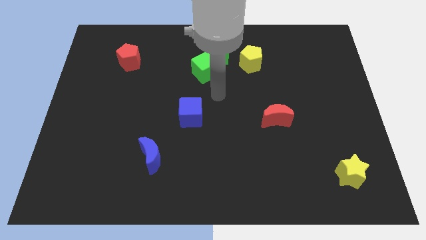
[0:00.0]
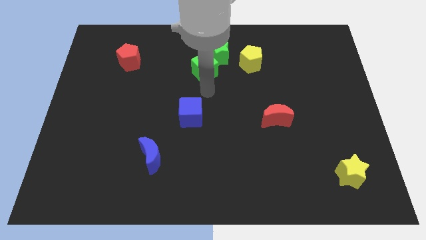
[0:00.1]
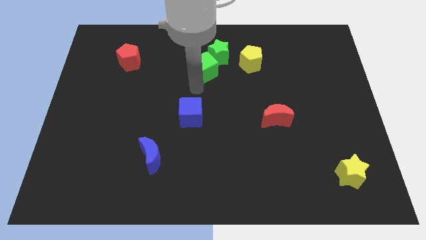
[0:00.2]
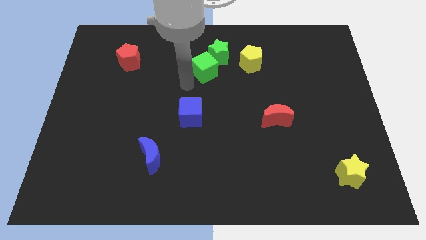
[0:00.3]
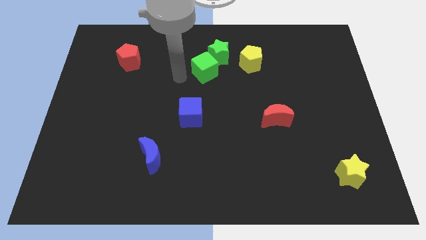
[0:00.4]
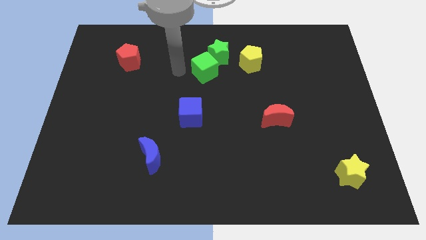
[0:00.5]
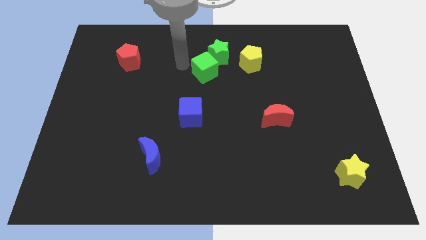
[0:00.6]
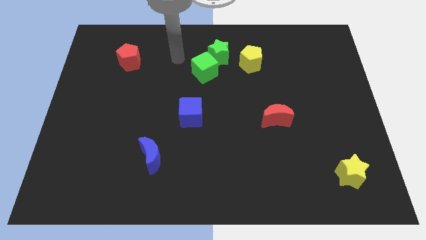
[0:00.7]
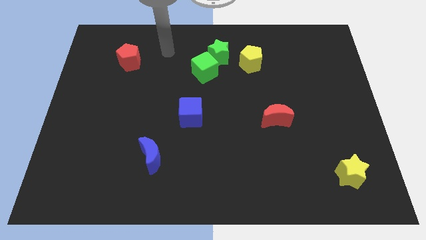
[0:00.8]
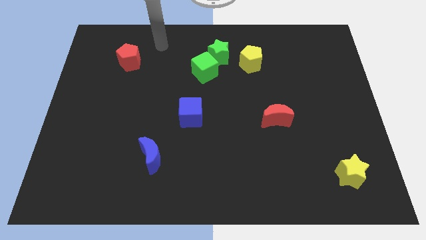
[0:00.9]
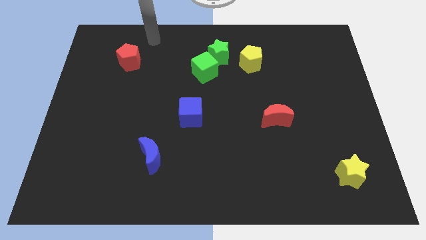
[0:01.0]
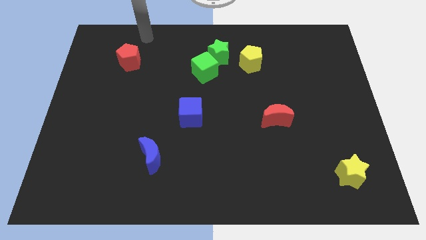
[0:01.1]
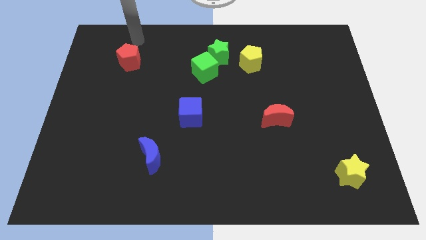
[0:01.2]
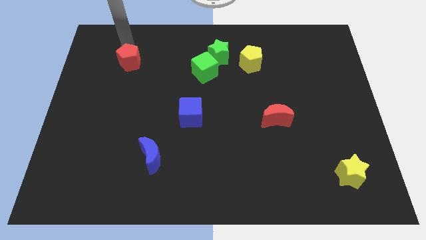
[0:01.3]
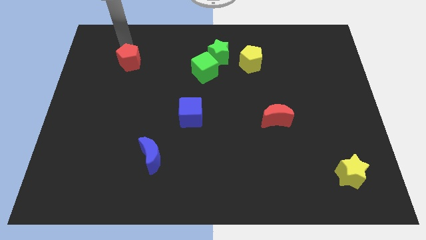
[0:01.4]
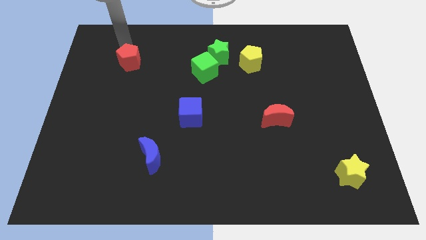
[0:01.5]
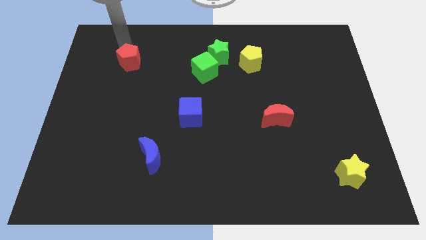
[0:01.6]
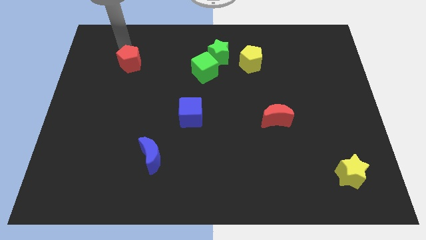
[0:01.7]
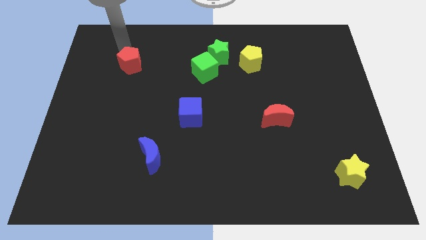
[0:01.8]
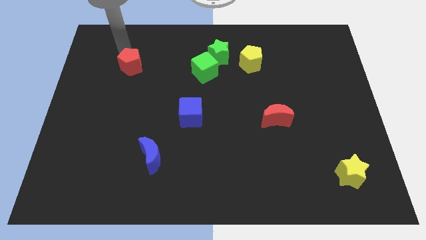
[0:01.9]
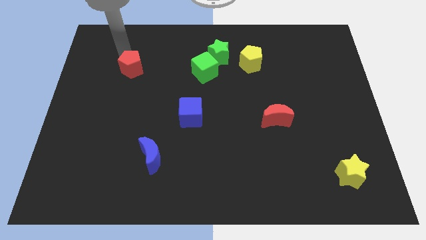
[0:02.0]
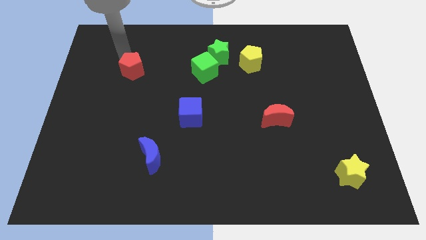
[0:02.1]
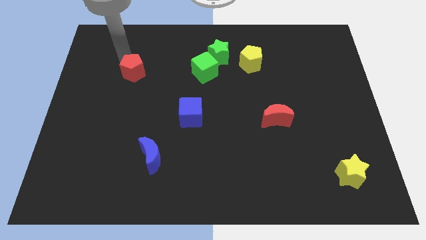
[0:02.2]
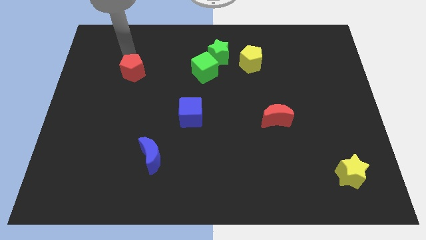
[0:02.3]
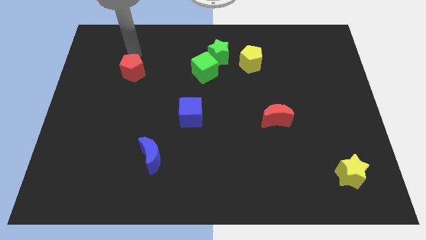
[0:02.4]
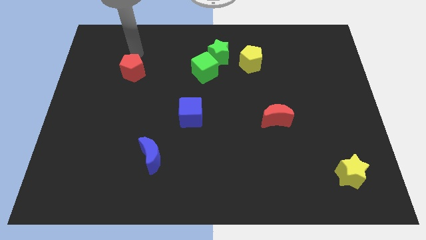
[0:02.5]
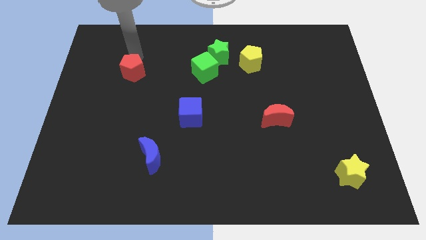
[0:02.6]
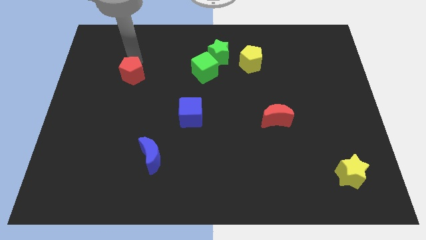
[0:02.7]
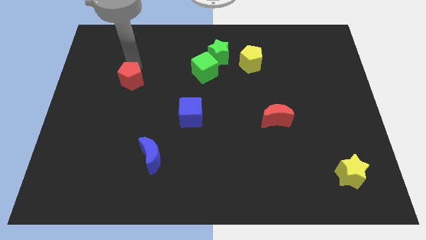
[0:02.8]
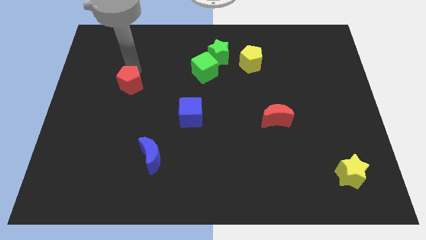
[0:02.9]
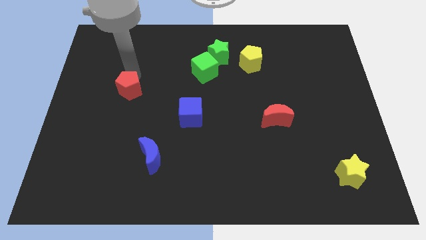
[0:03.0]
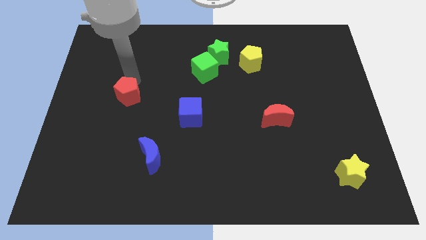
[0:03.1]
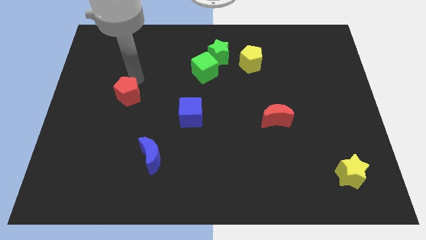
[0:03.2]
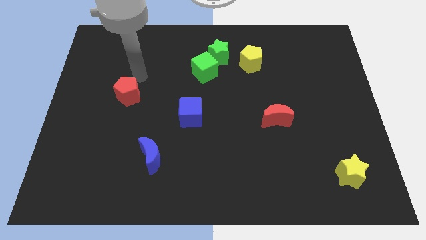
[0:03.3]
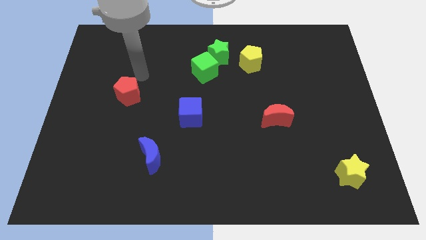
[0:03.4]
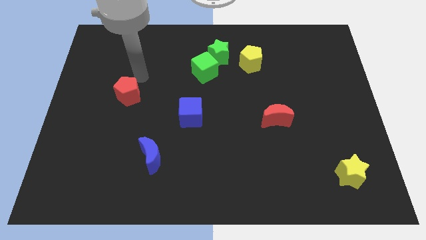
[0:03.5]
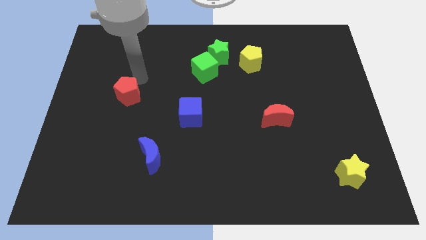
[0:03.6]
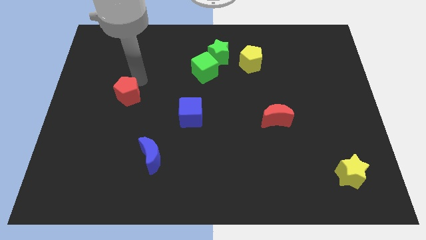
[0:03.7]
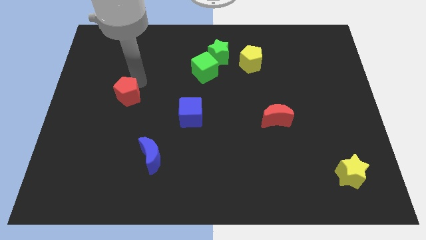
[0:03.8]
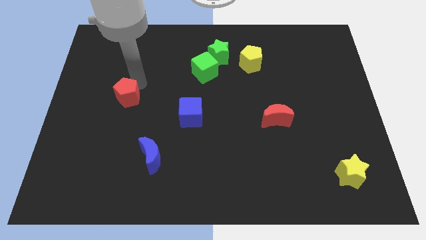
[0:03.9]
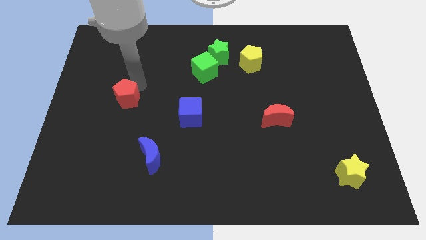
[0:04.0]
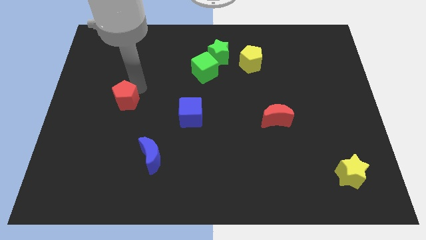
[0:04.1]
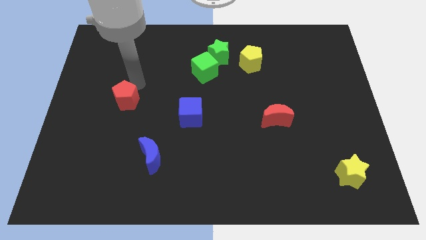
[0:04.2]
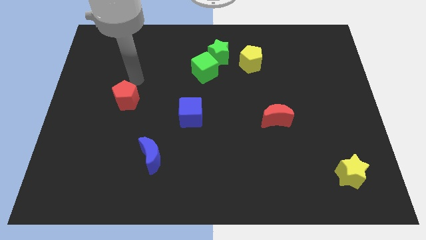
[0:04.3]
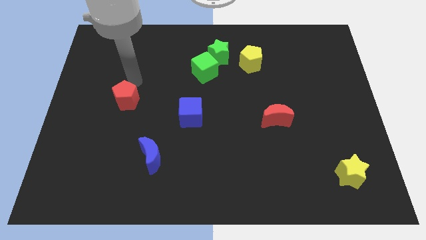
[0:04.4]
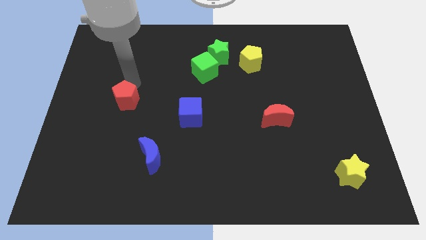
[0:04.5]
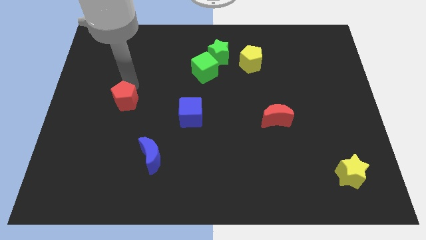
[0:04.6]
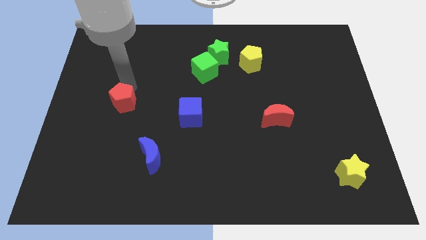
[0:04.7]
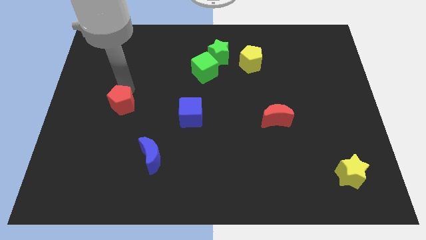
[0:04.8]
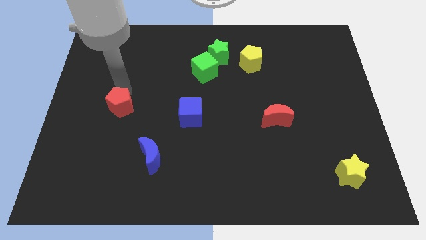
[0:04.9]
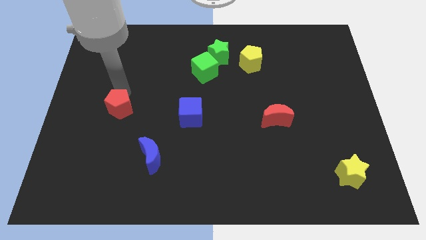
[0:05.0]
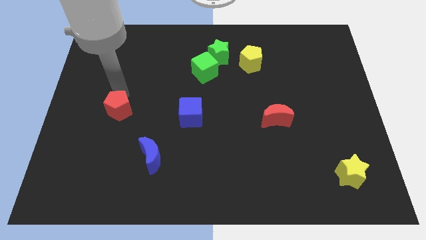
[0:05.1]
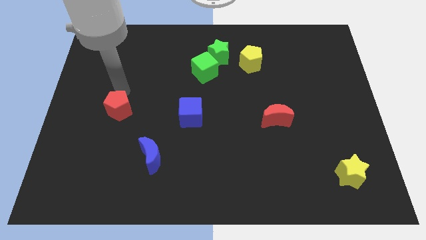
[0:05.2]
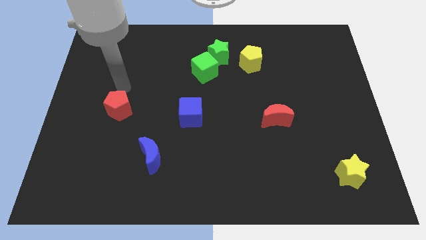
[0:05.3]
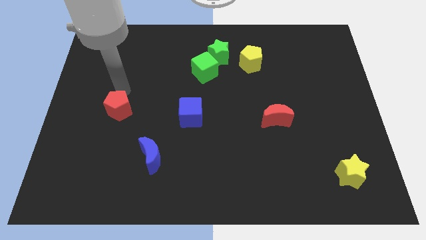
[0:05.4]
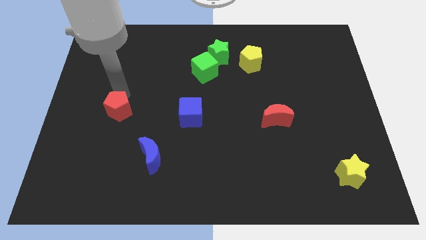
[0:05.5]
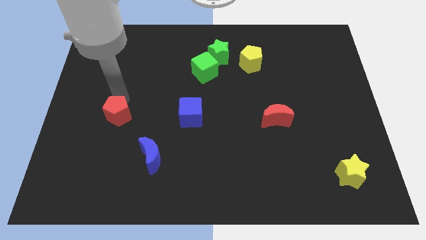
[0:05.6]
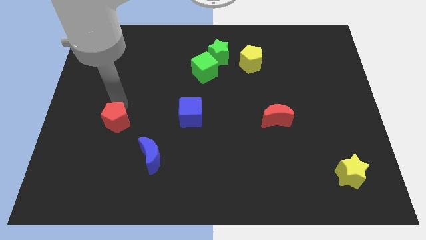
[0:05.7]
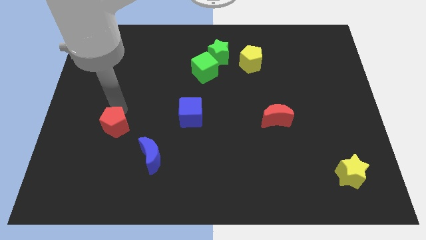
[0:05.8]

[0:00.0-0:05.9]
move the red pentagon down

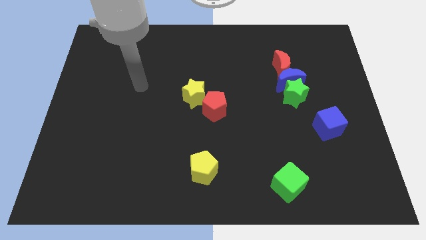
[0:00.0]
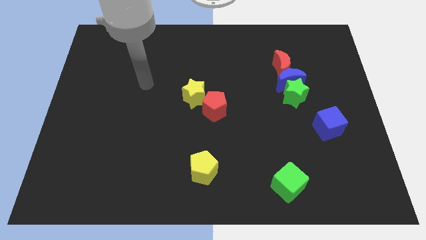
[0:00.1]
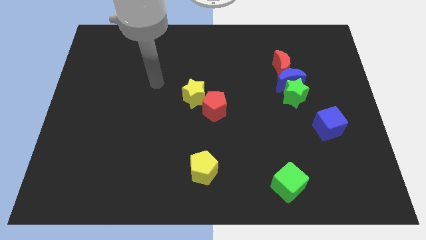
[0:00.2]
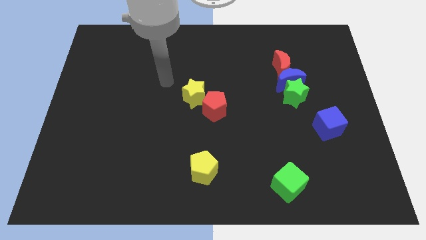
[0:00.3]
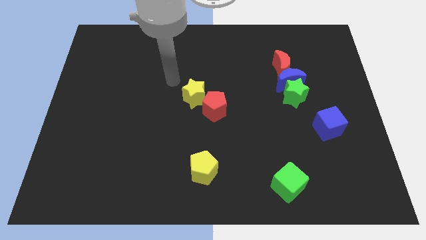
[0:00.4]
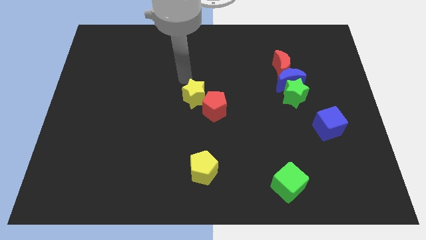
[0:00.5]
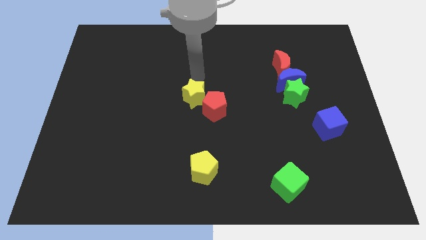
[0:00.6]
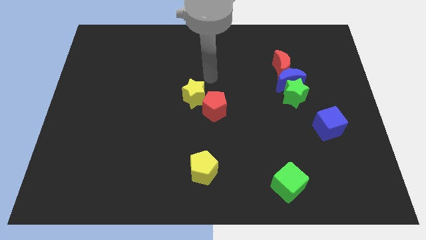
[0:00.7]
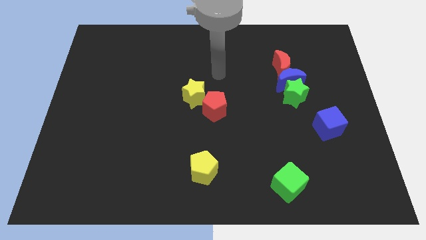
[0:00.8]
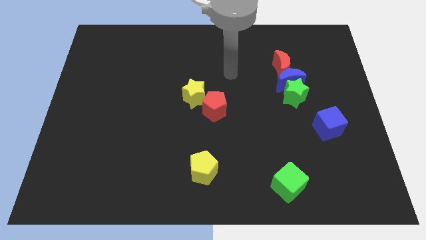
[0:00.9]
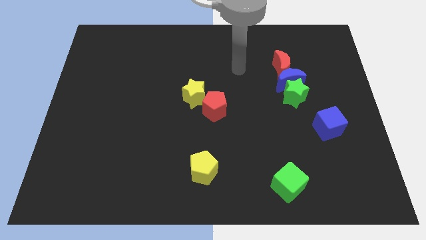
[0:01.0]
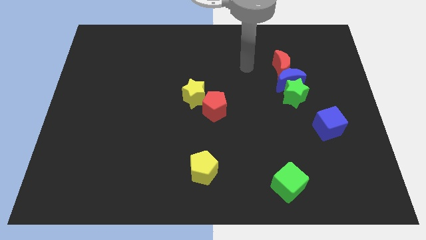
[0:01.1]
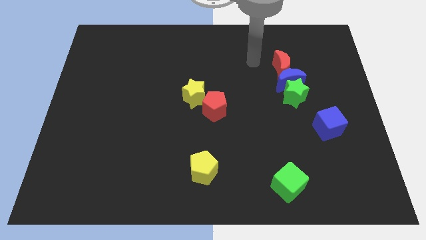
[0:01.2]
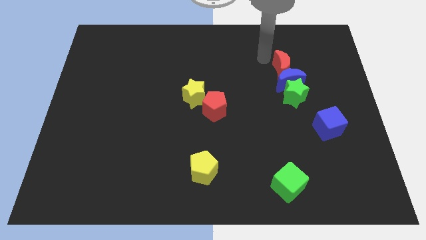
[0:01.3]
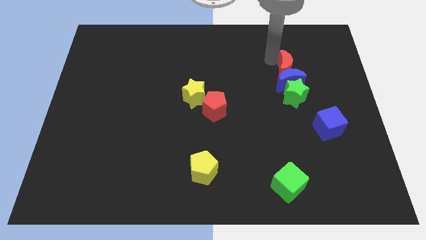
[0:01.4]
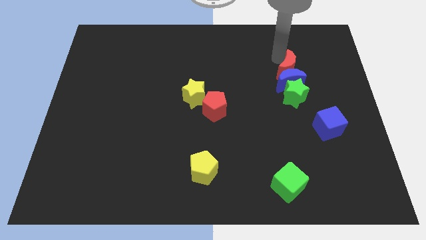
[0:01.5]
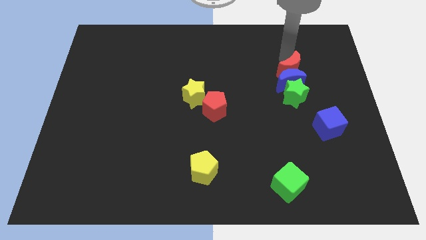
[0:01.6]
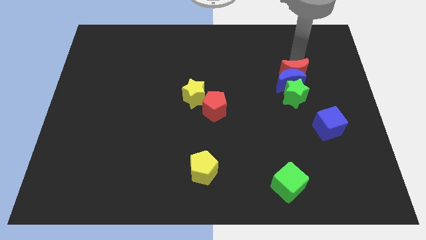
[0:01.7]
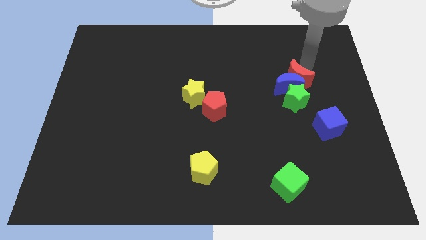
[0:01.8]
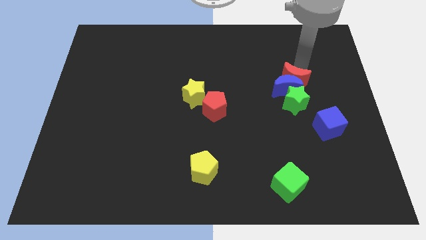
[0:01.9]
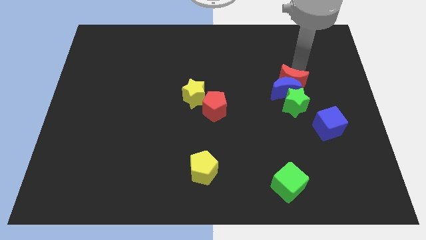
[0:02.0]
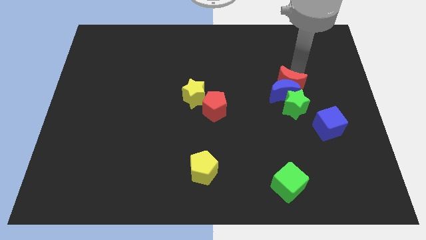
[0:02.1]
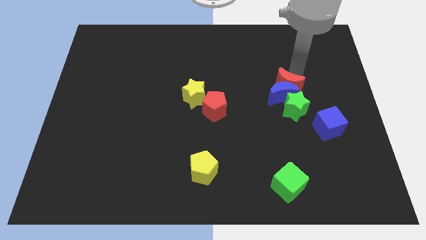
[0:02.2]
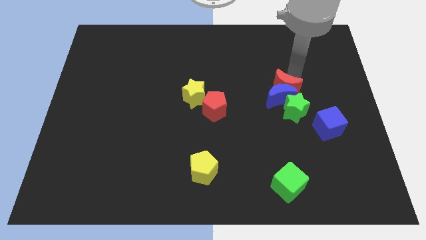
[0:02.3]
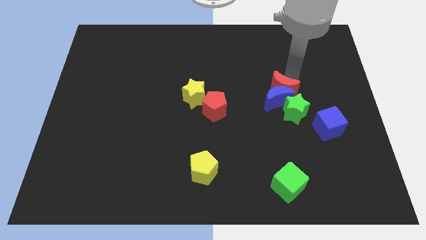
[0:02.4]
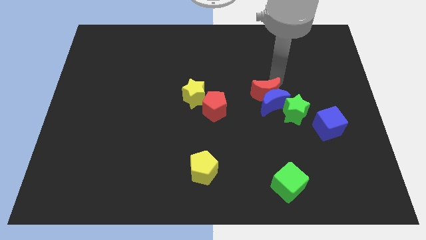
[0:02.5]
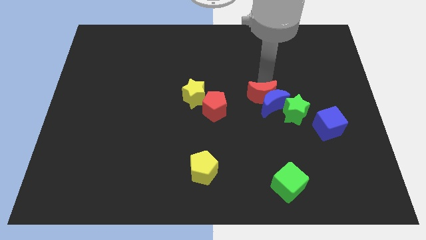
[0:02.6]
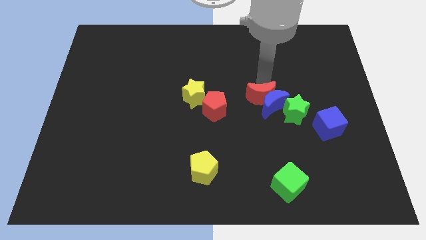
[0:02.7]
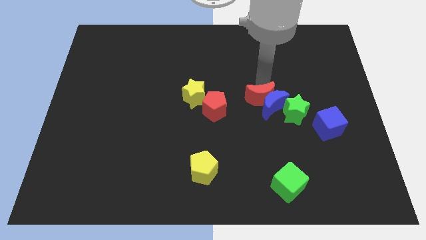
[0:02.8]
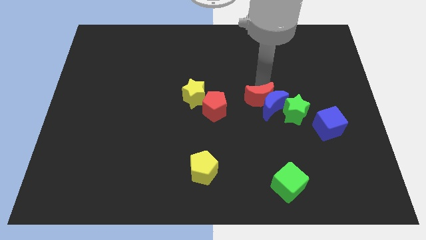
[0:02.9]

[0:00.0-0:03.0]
slide the blue moon down a little bit
